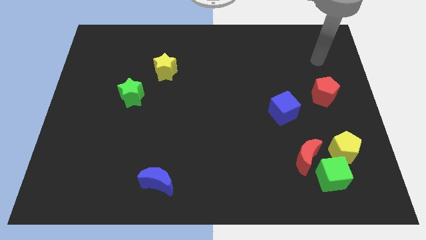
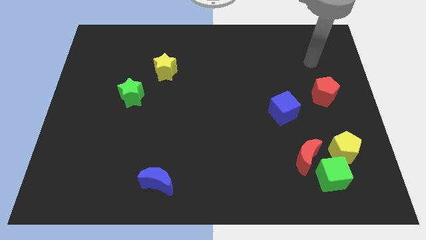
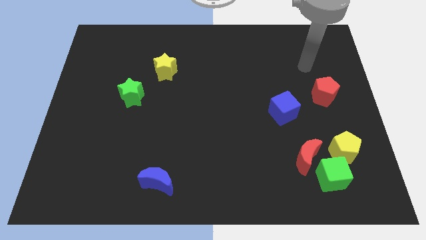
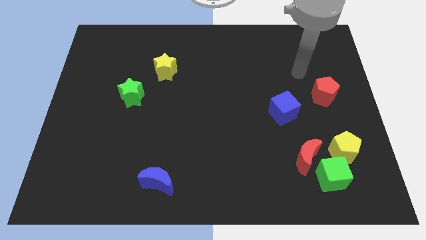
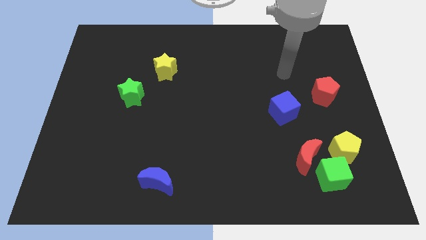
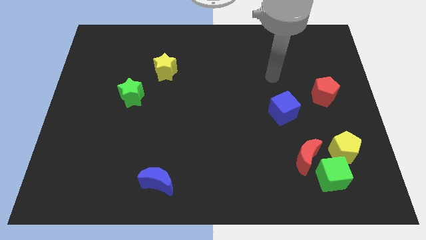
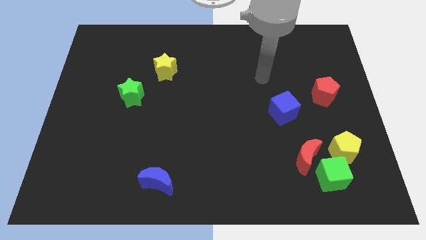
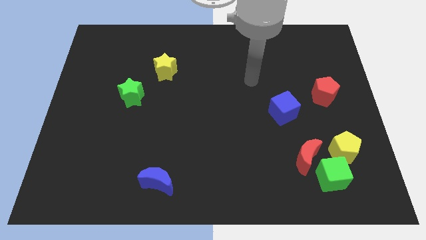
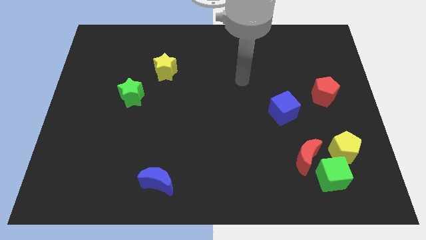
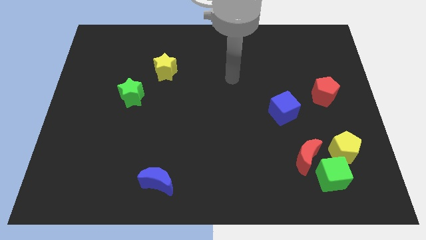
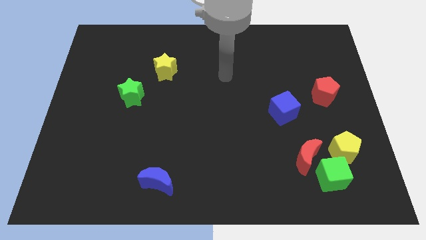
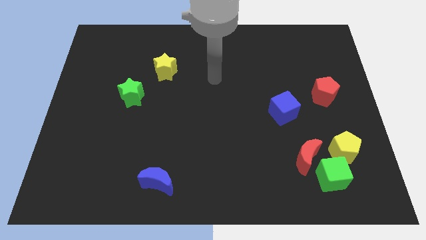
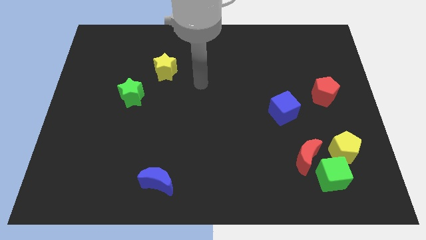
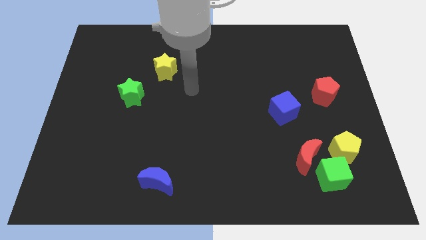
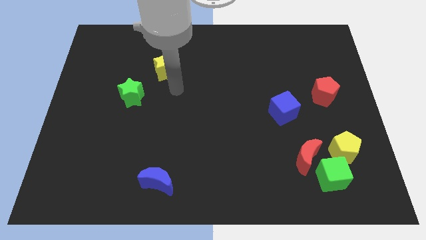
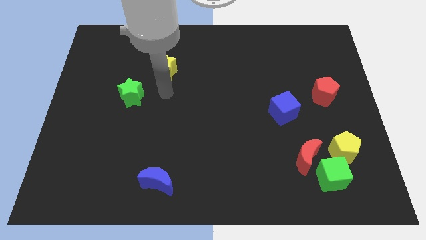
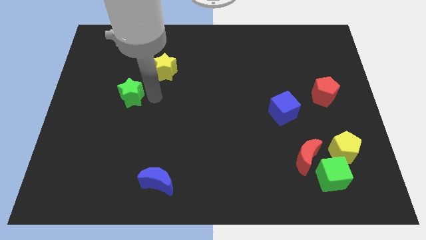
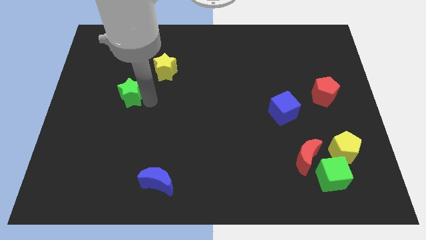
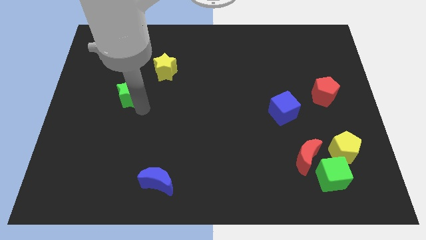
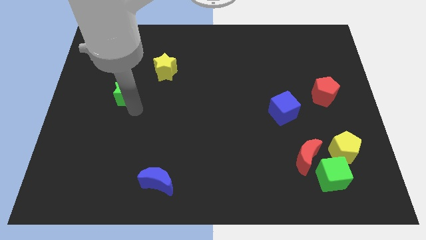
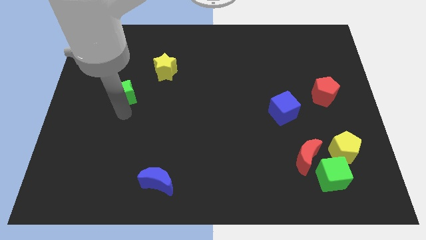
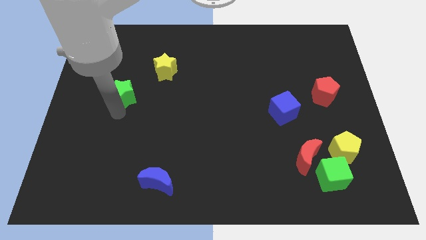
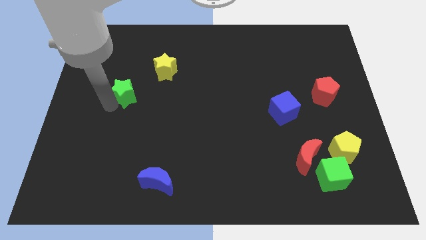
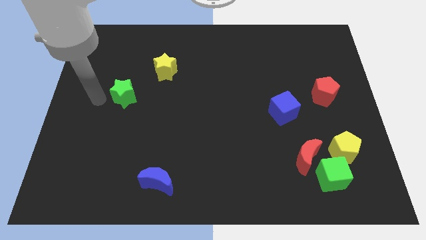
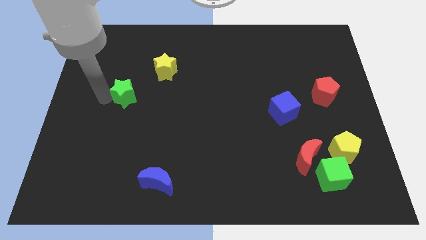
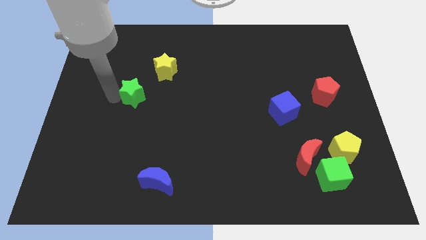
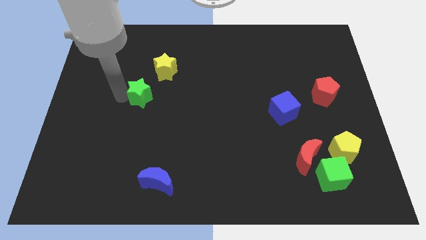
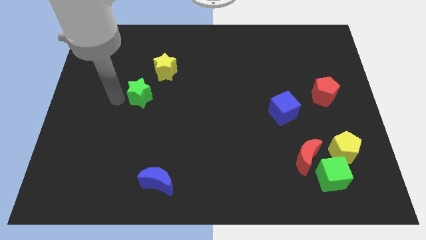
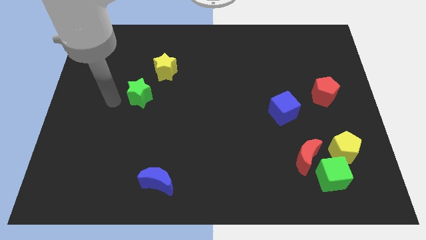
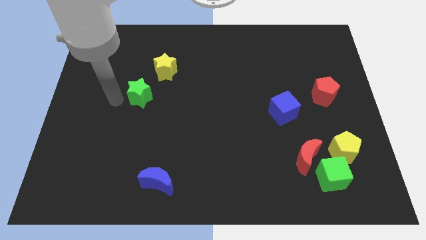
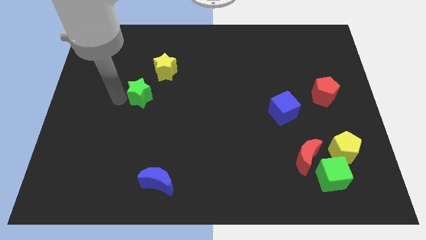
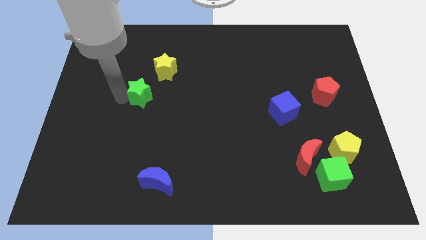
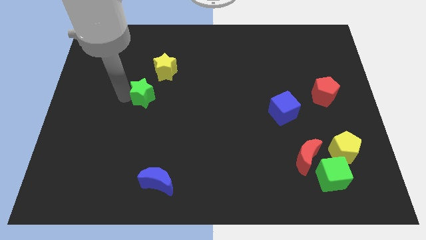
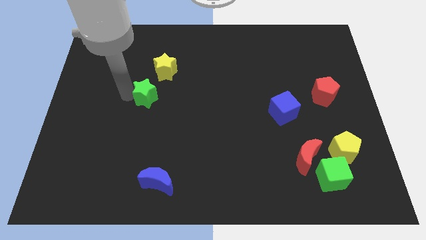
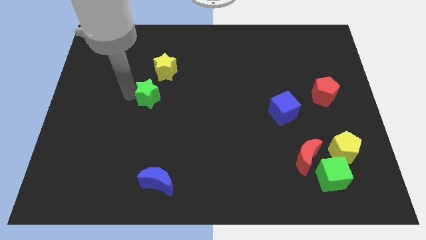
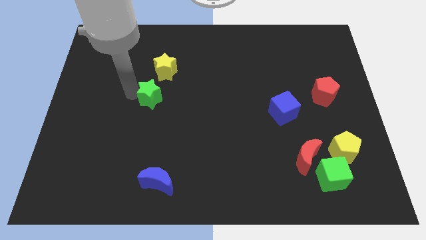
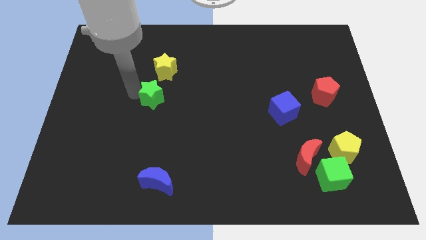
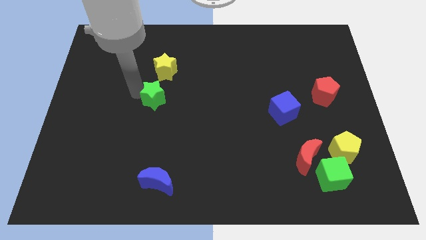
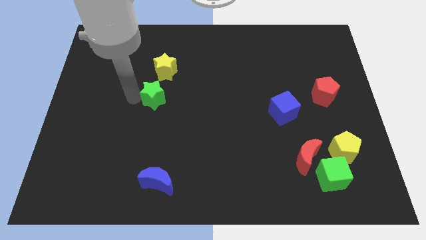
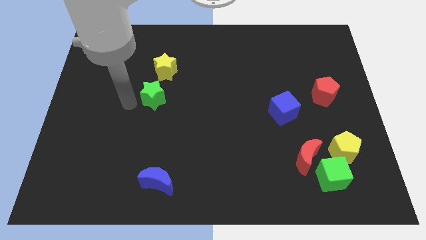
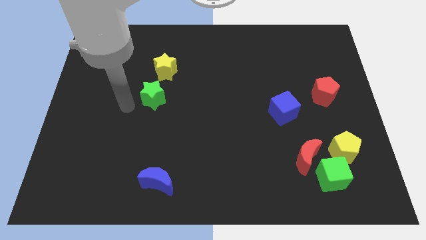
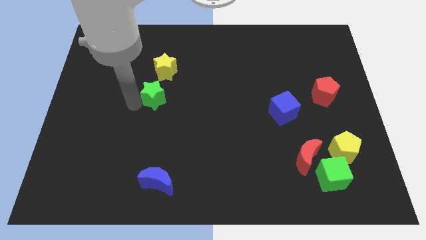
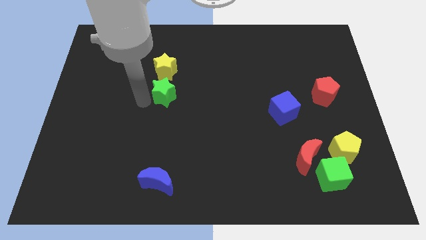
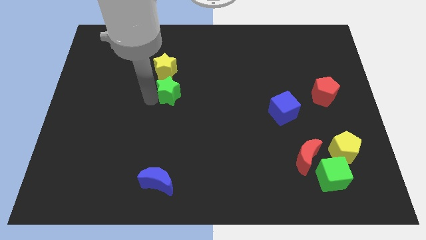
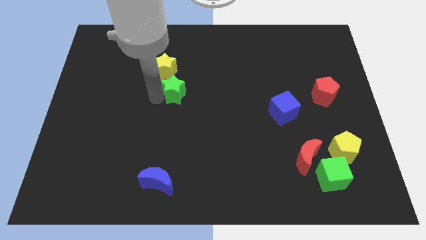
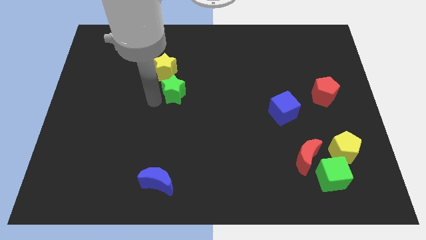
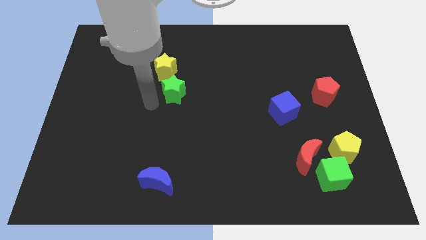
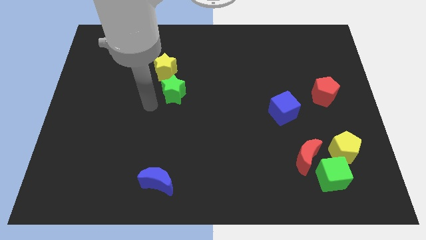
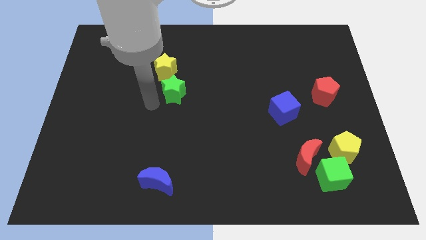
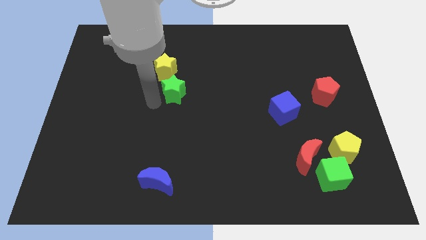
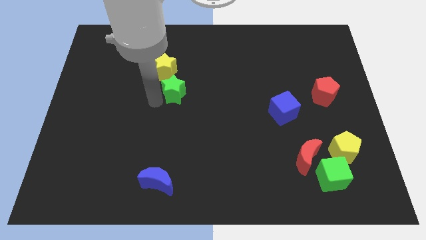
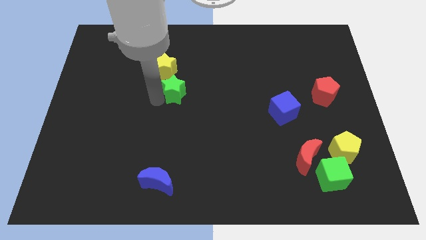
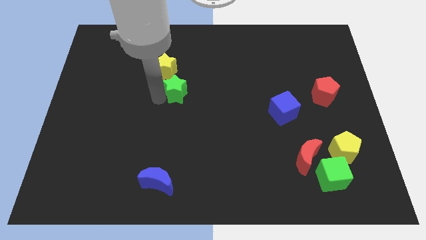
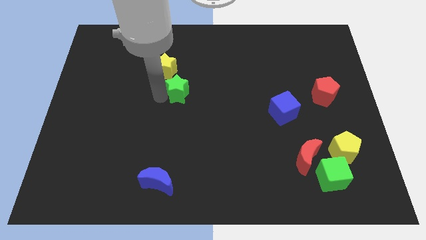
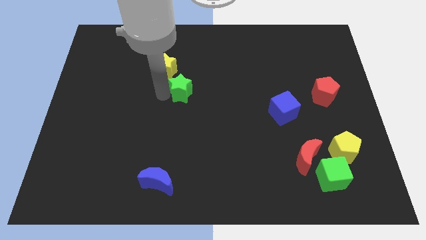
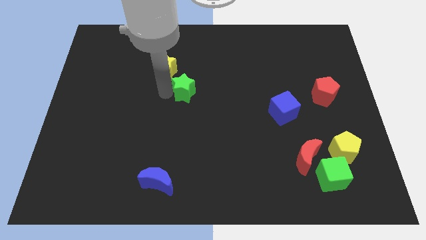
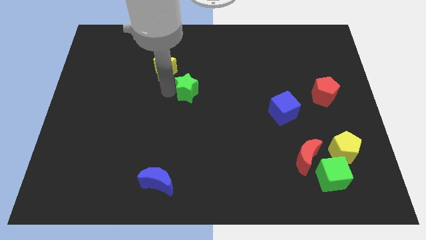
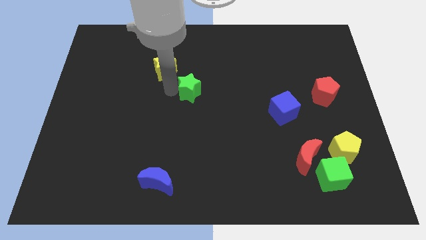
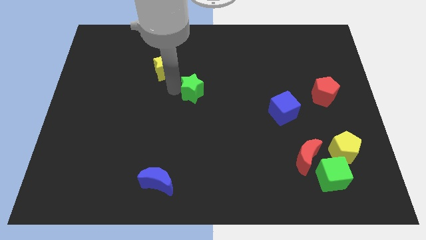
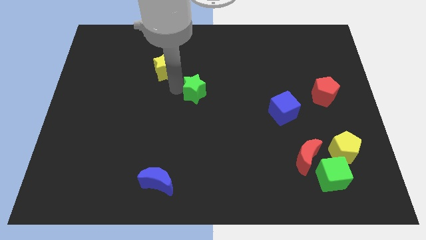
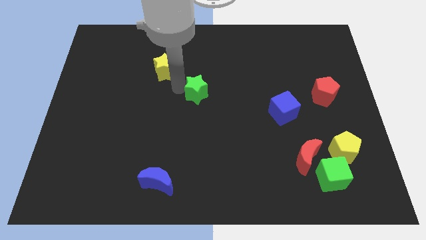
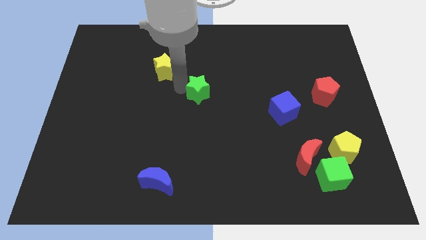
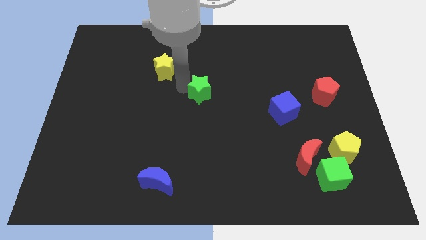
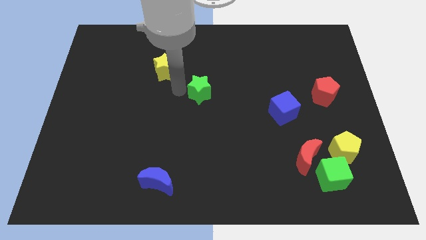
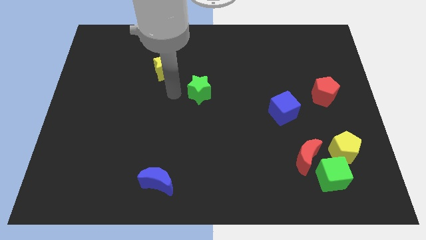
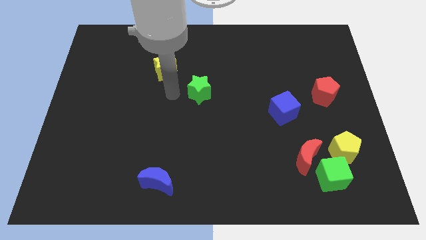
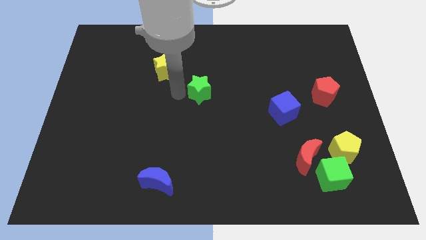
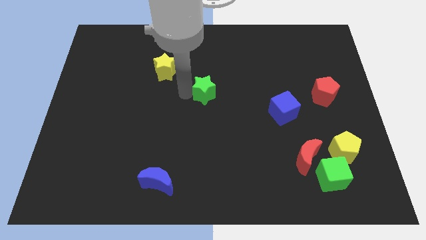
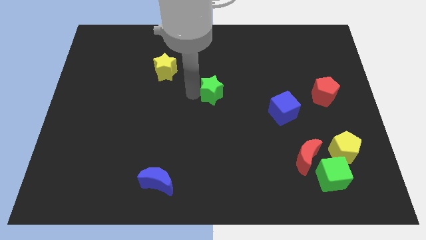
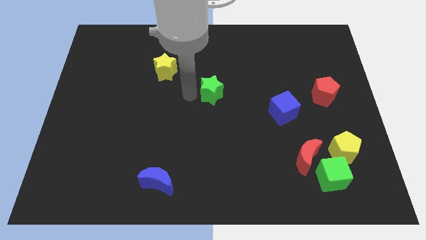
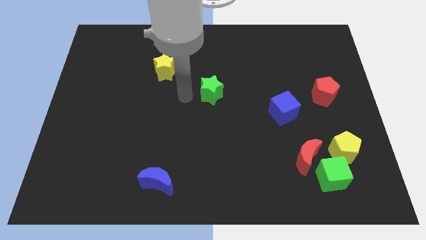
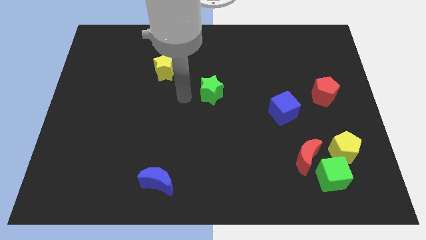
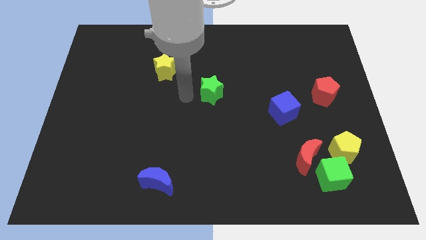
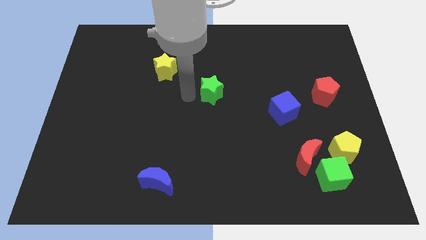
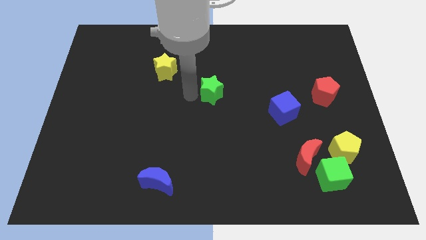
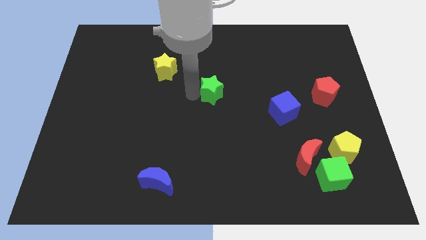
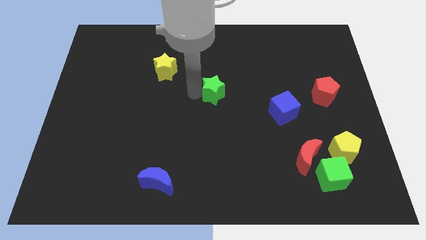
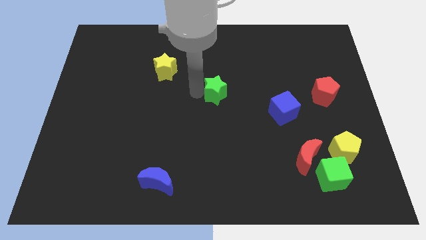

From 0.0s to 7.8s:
push the green star right

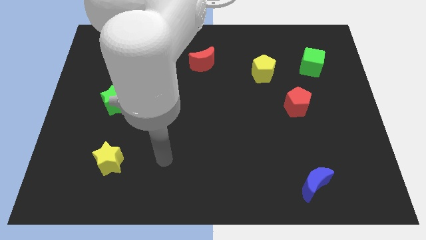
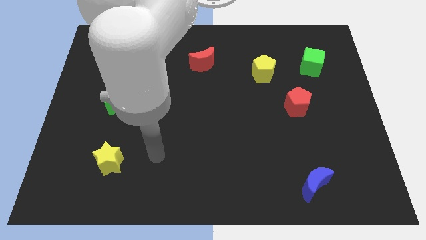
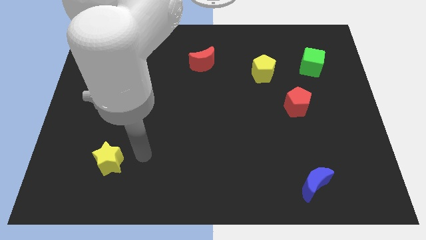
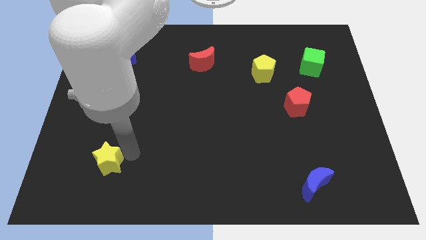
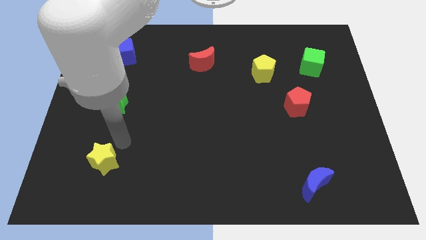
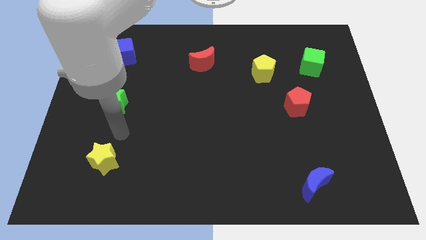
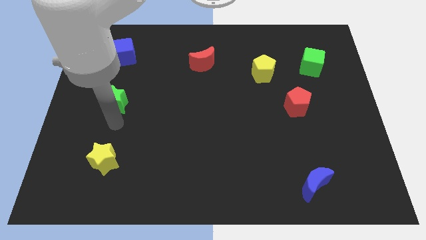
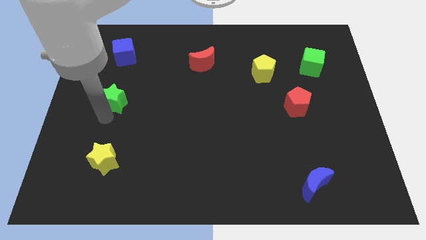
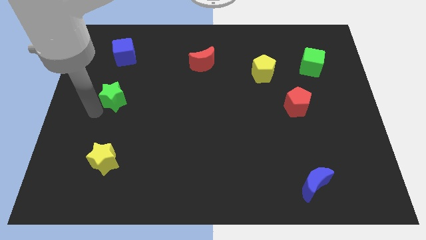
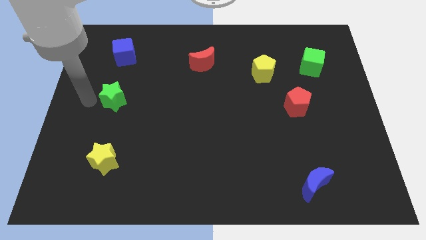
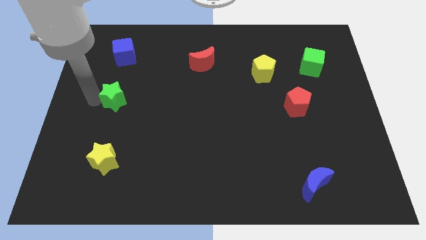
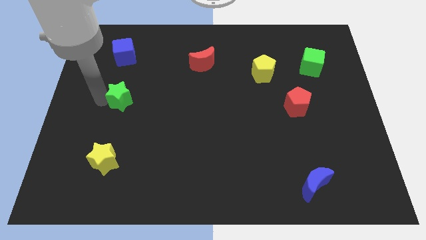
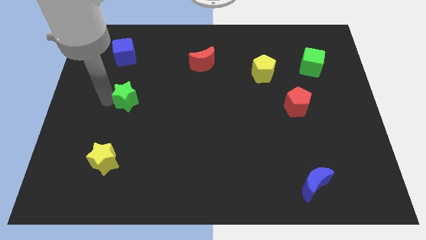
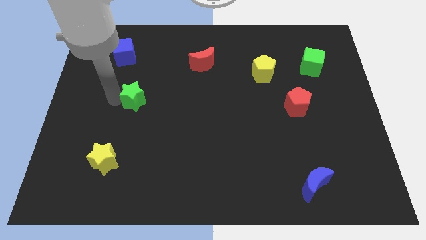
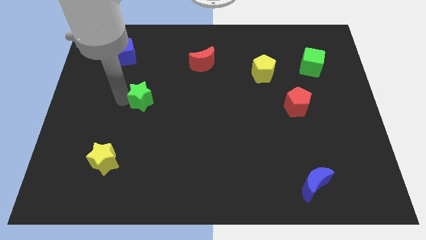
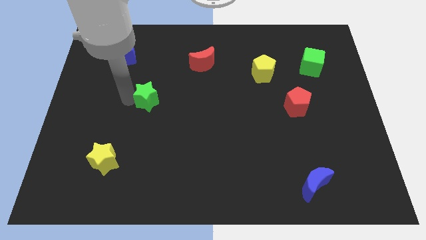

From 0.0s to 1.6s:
slide the green star to the right slightly
